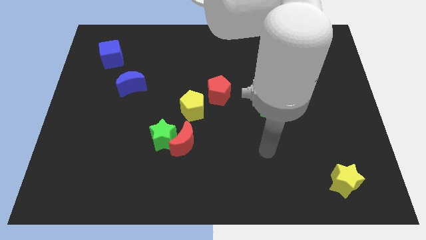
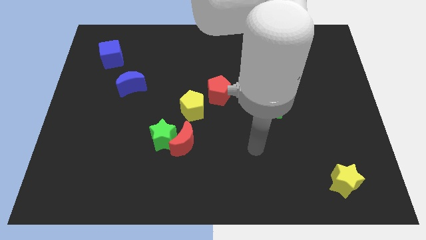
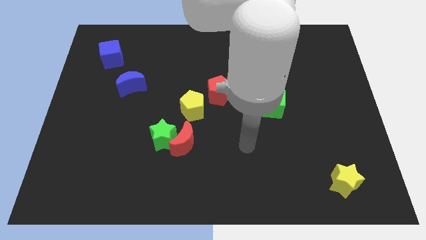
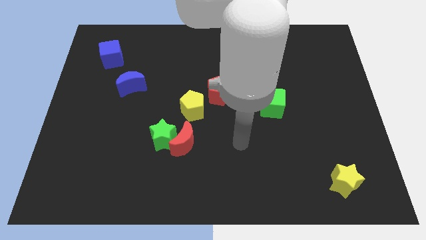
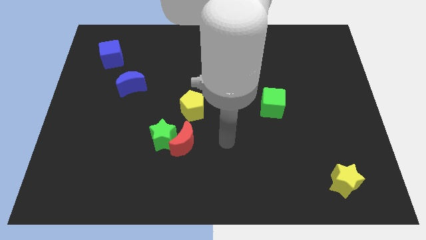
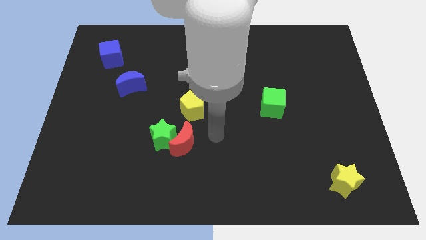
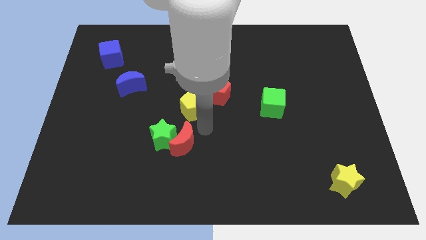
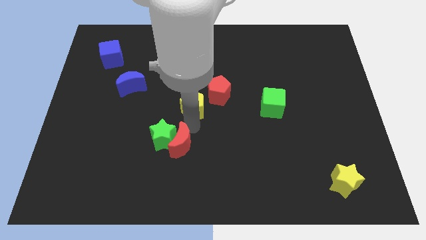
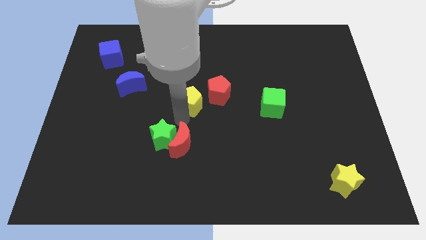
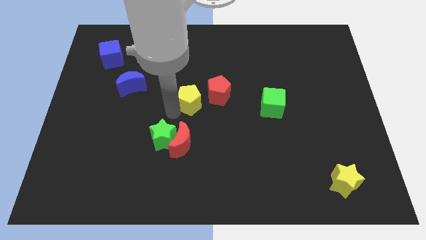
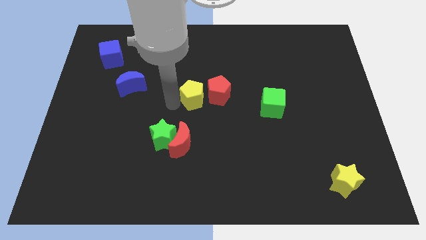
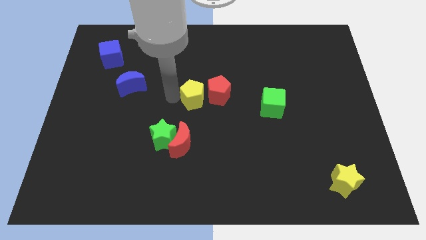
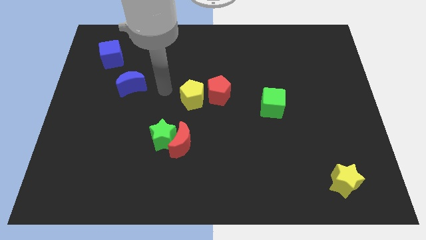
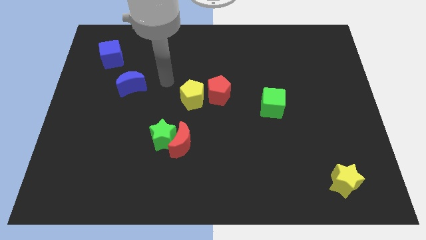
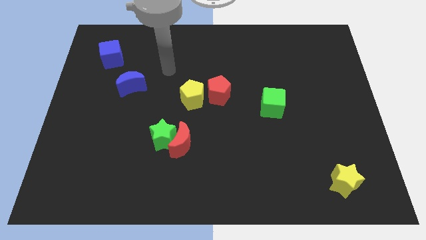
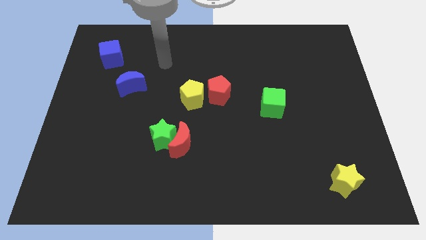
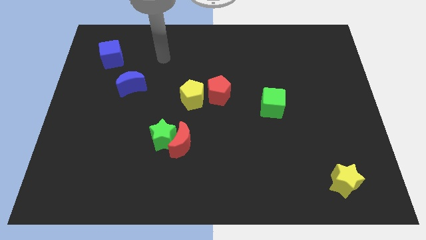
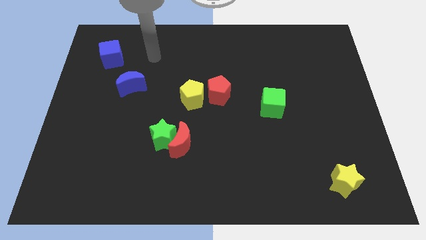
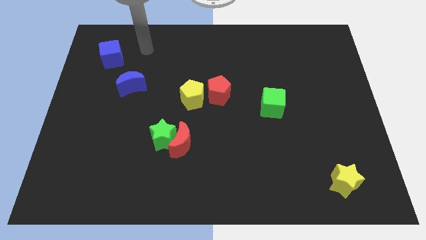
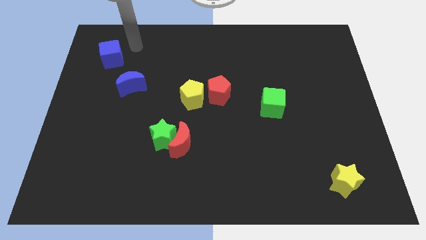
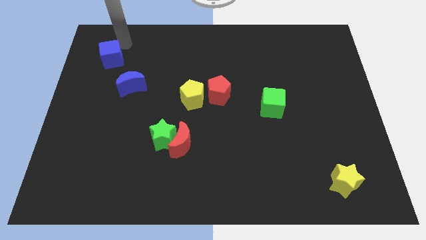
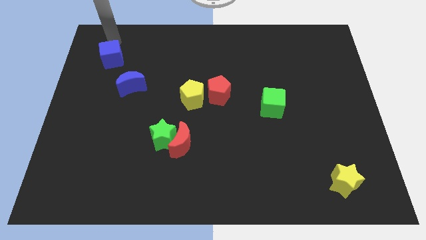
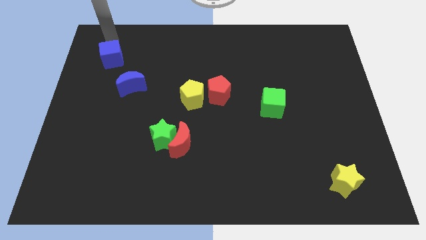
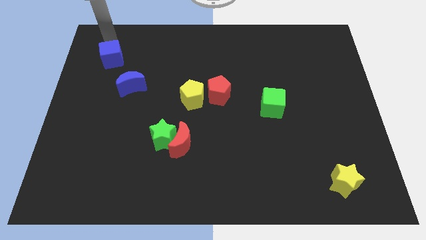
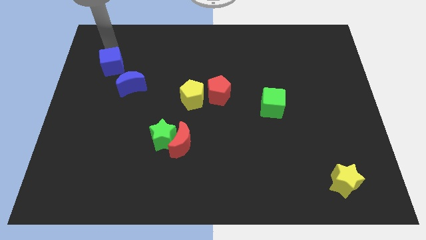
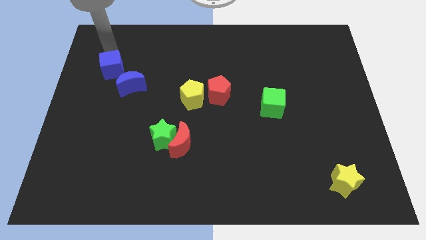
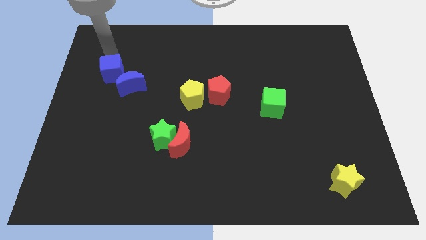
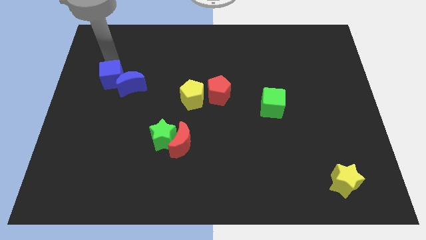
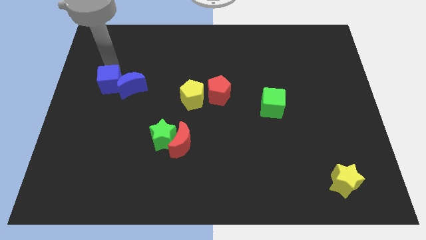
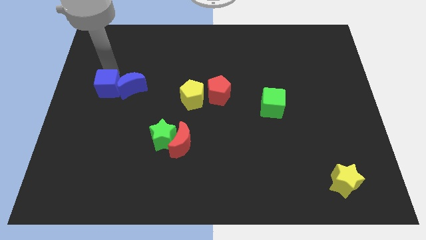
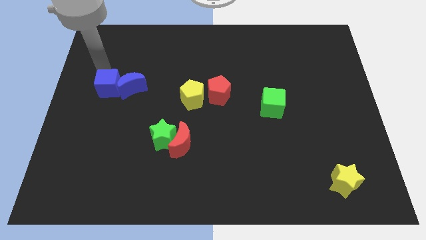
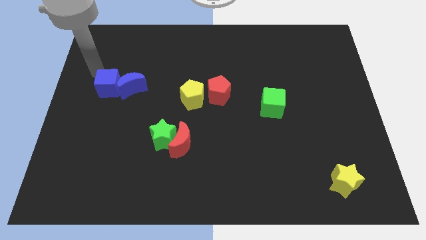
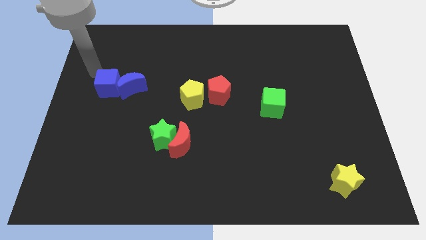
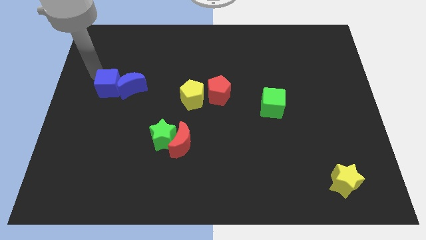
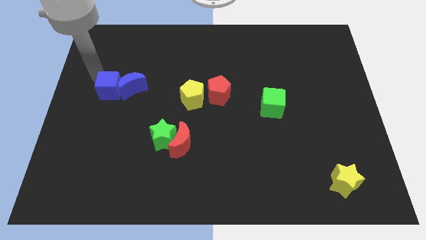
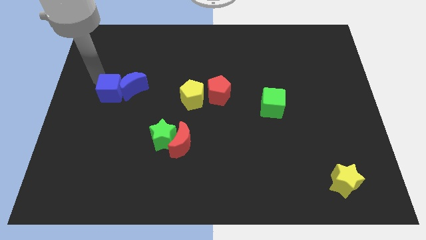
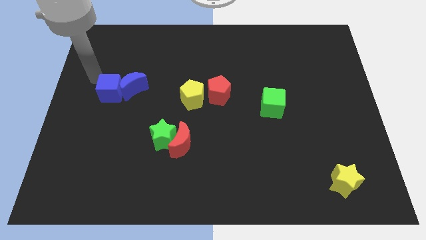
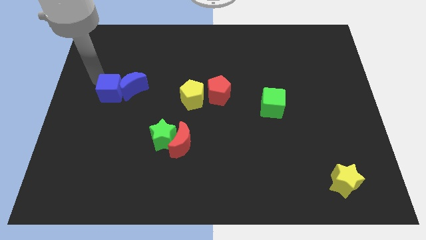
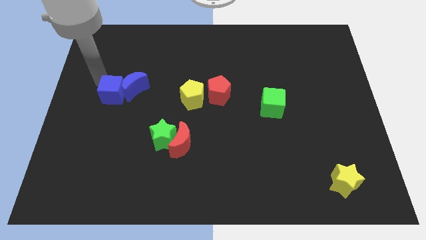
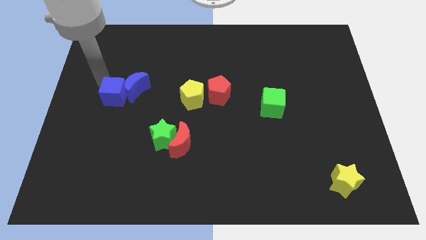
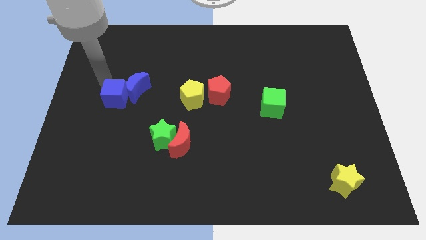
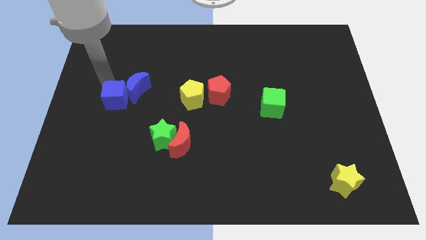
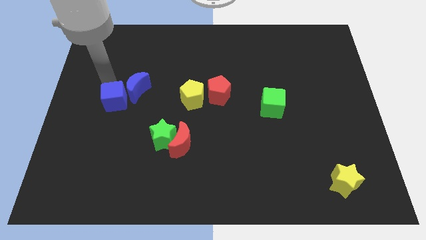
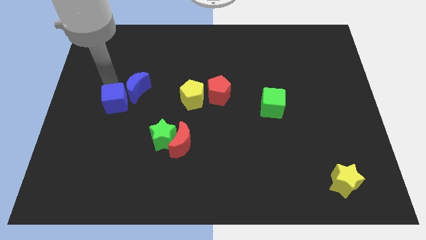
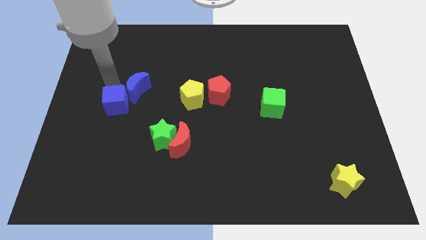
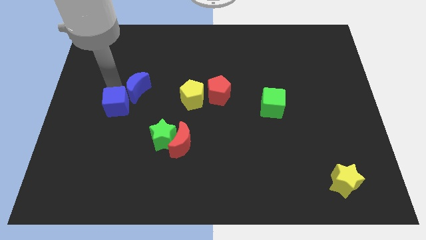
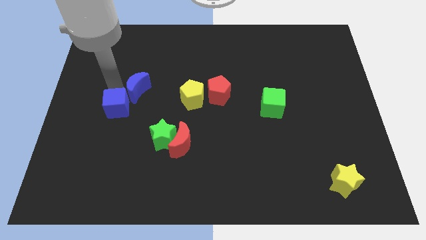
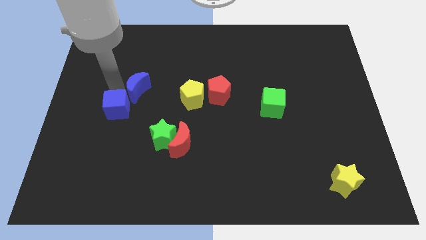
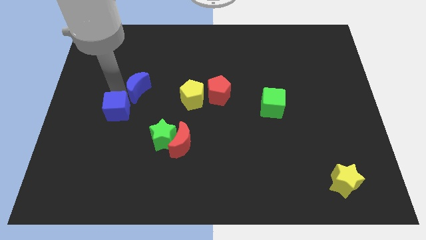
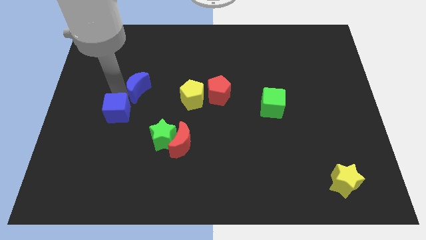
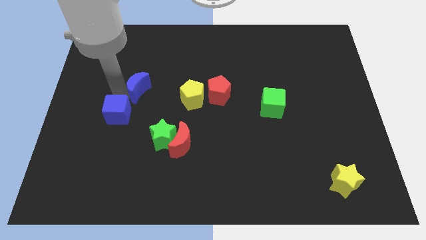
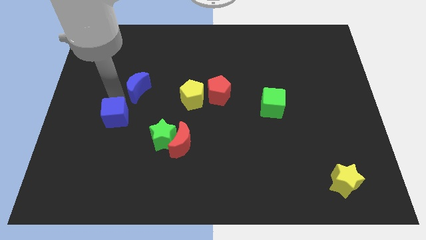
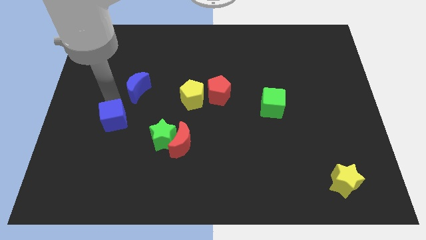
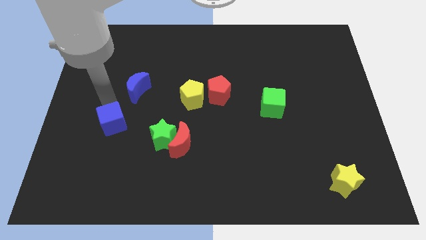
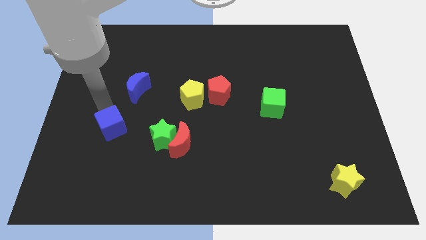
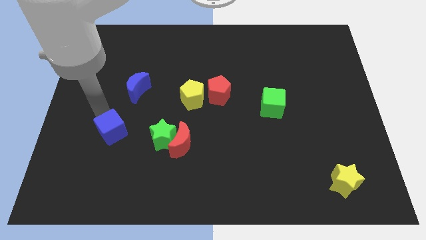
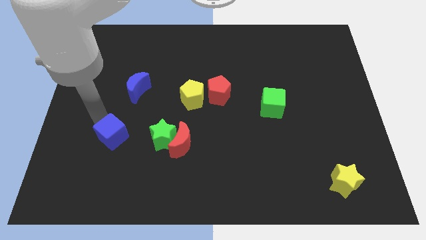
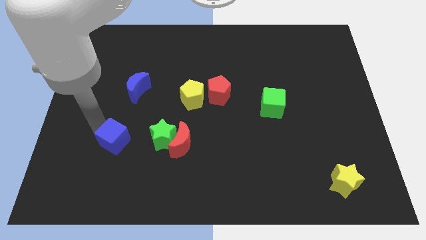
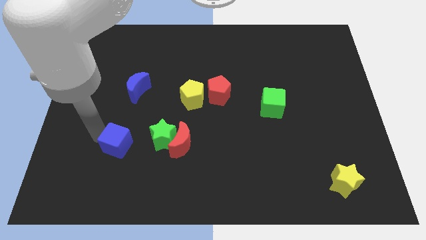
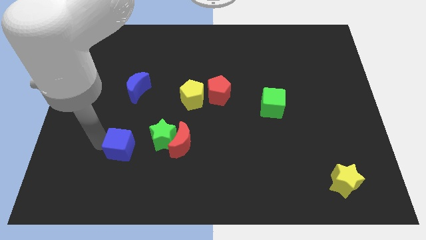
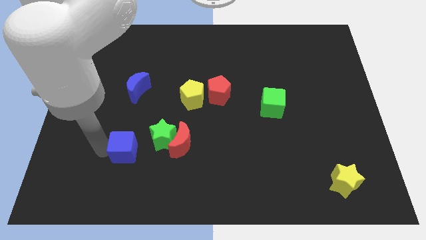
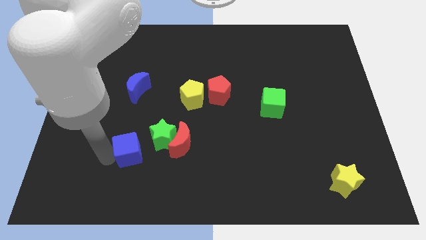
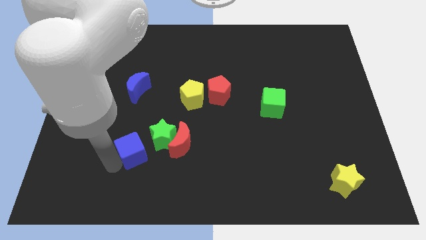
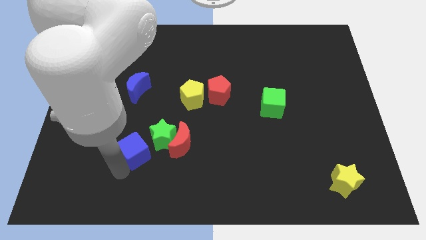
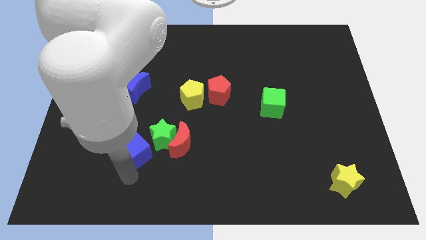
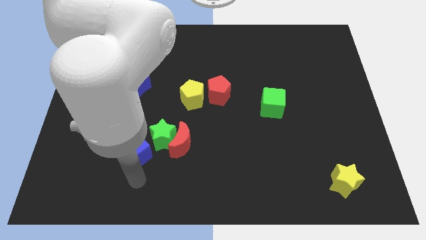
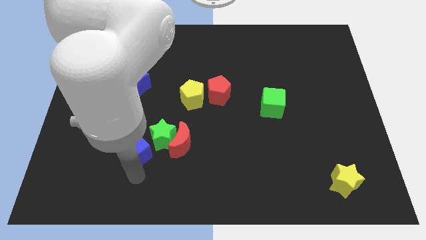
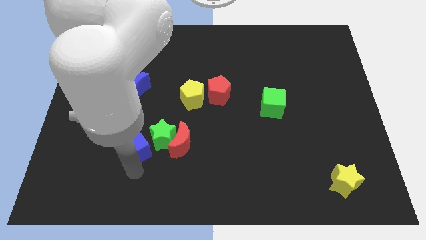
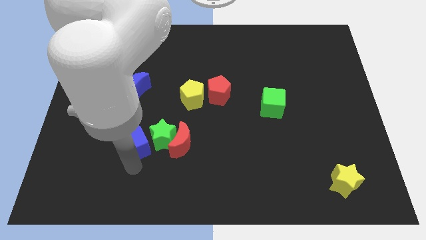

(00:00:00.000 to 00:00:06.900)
put the blue cube to the green star

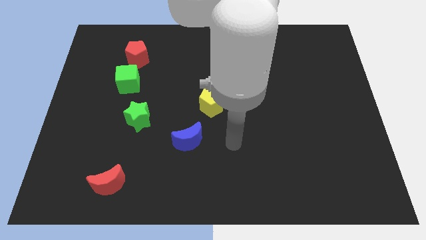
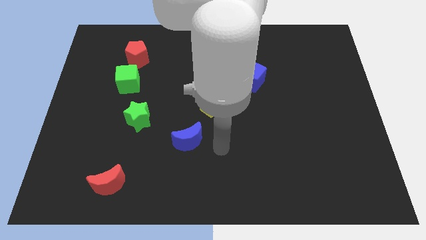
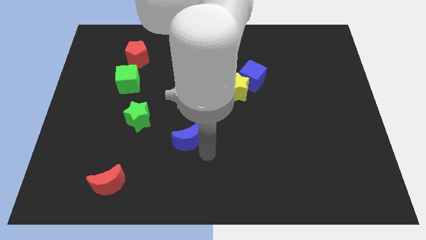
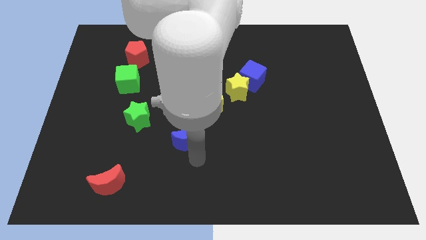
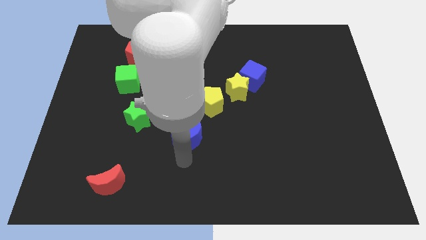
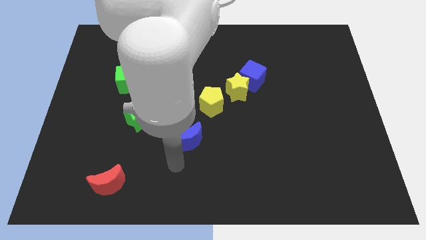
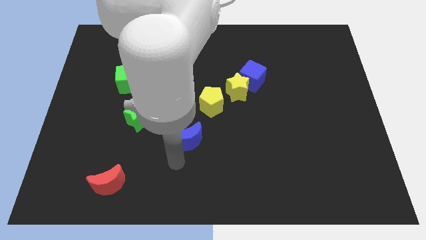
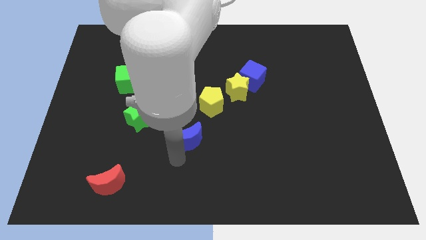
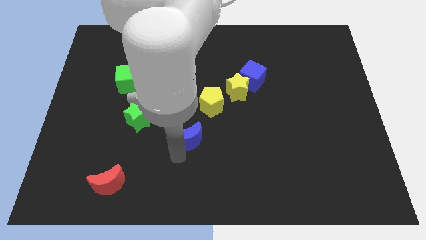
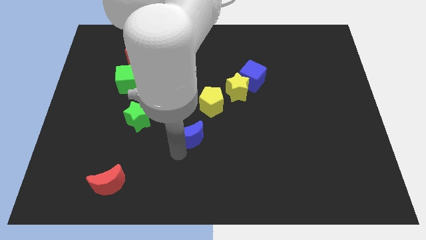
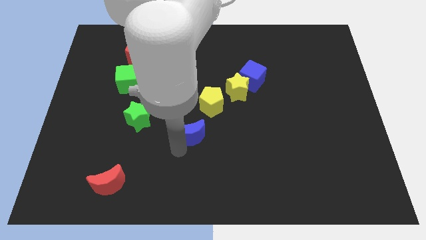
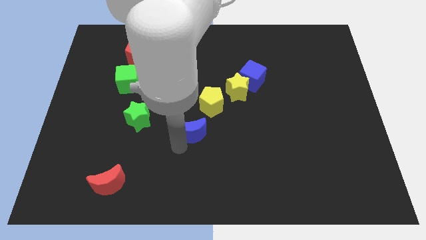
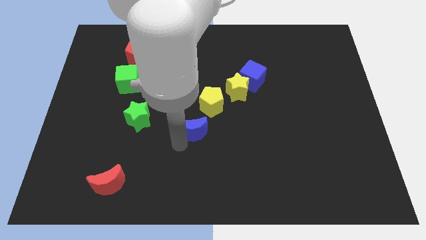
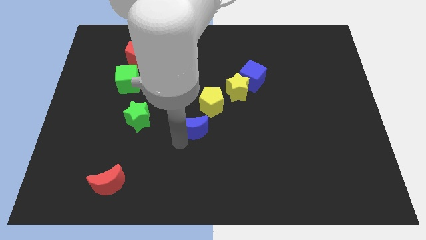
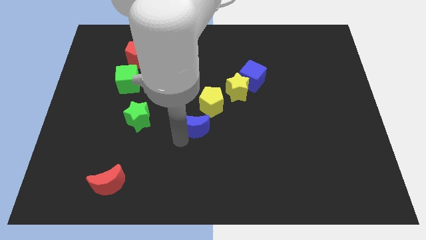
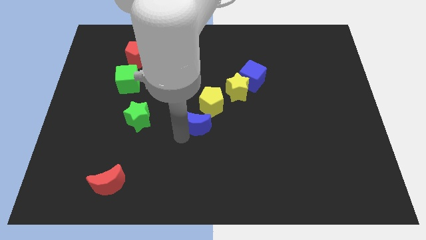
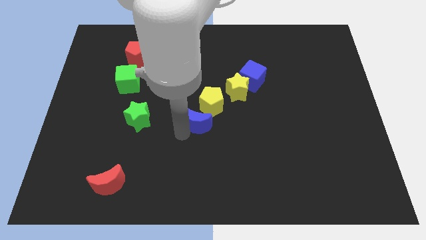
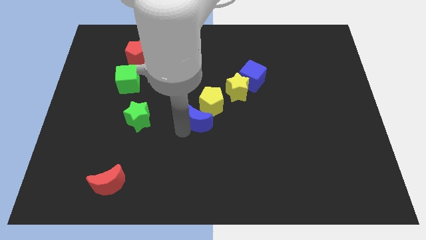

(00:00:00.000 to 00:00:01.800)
slide the blue moon to the yellow pentagon
